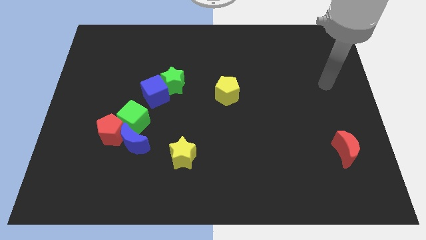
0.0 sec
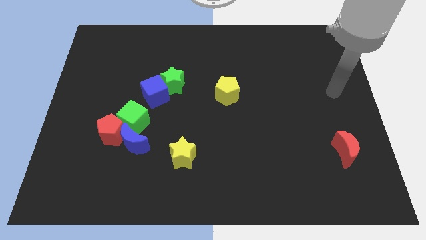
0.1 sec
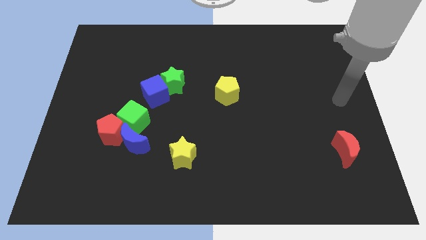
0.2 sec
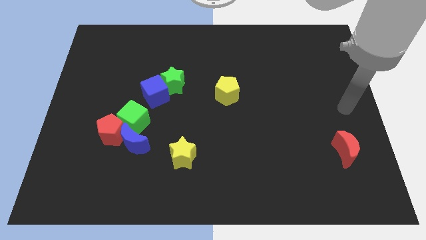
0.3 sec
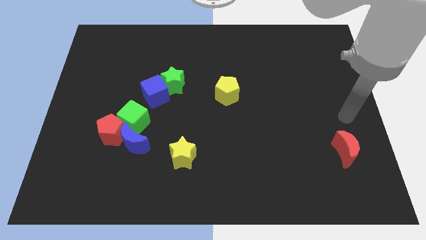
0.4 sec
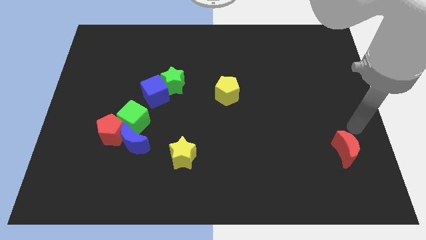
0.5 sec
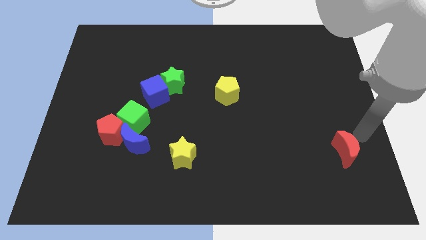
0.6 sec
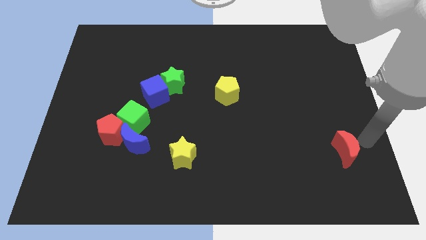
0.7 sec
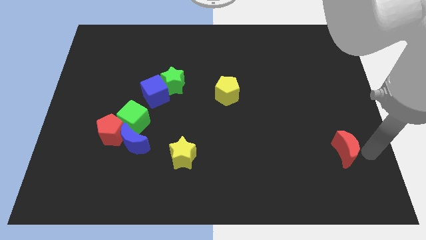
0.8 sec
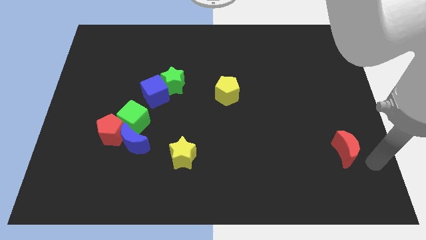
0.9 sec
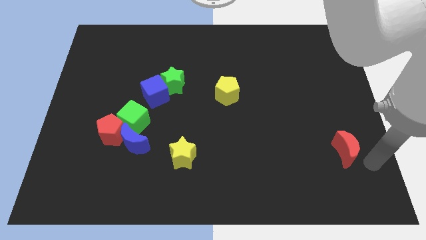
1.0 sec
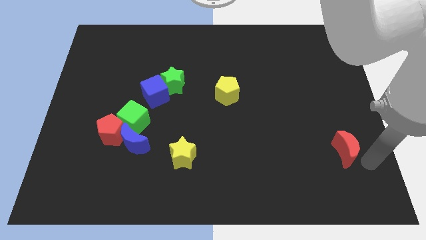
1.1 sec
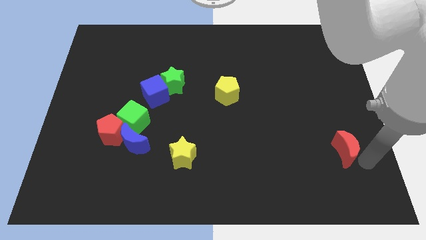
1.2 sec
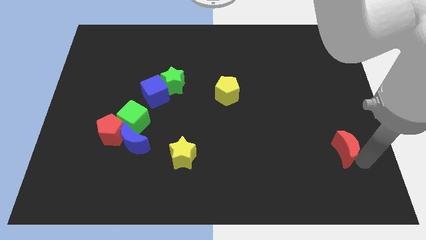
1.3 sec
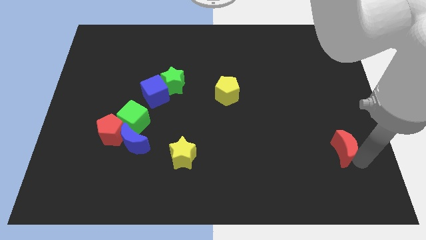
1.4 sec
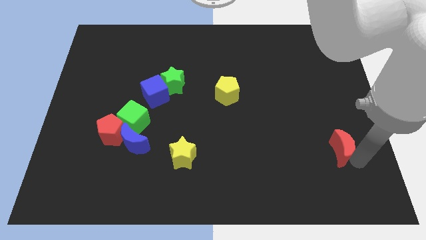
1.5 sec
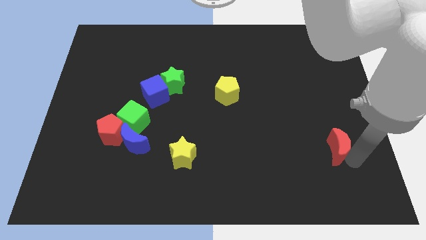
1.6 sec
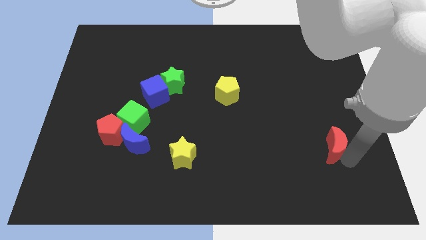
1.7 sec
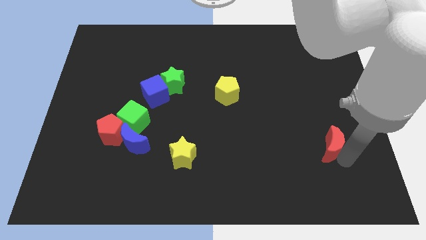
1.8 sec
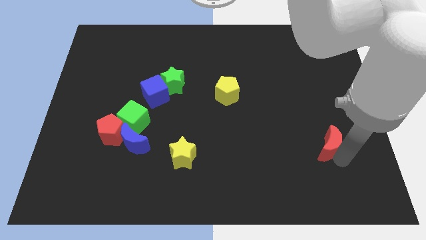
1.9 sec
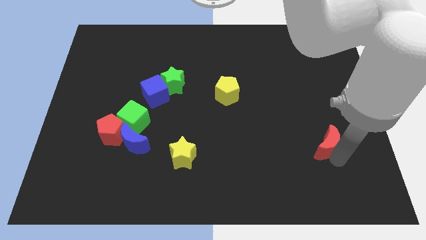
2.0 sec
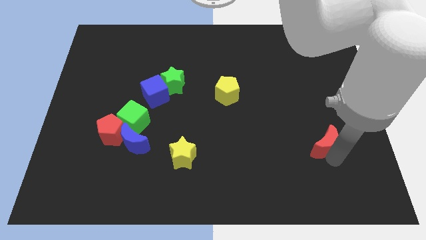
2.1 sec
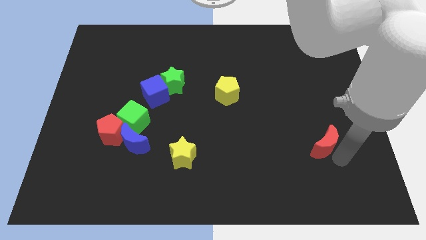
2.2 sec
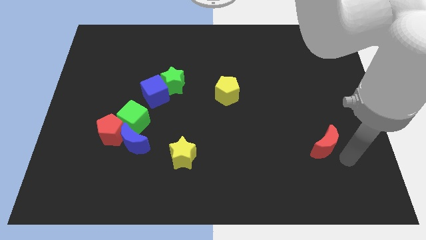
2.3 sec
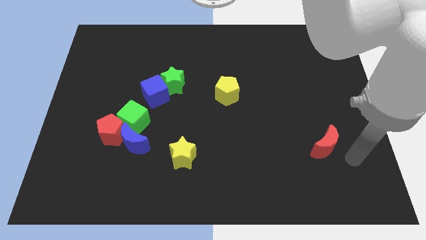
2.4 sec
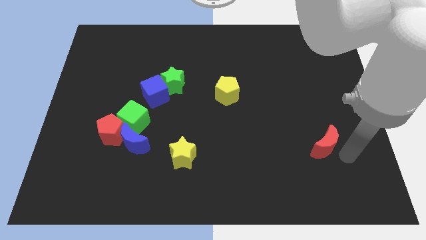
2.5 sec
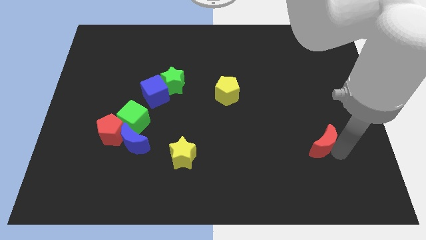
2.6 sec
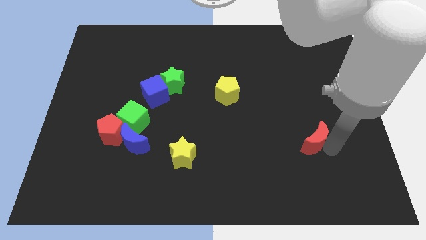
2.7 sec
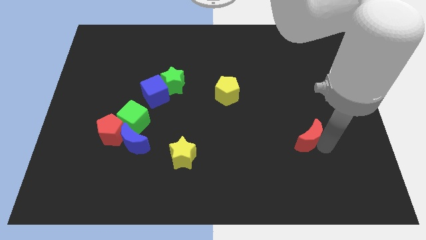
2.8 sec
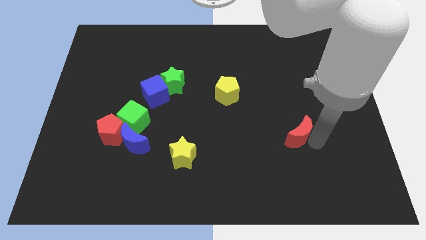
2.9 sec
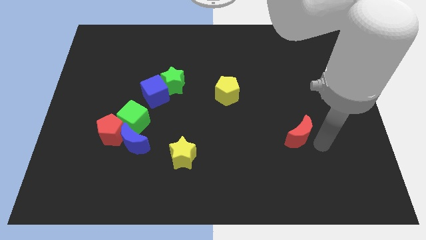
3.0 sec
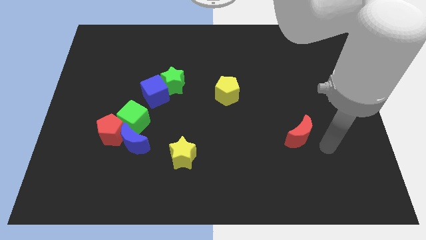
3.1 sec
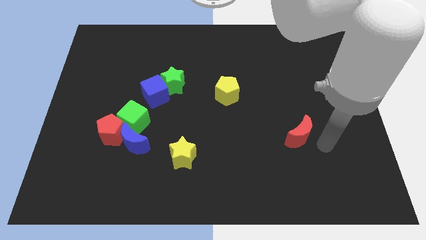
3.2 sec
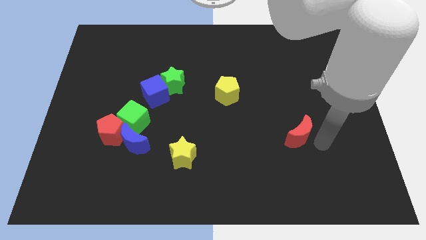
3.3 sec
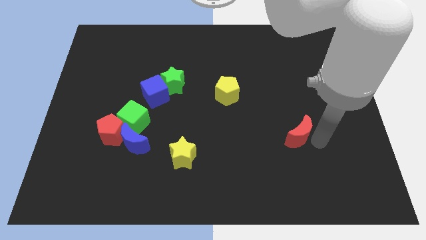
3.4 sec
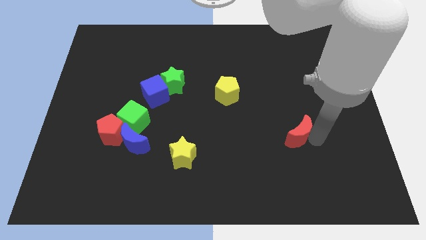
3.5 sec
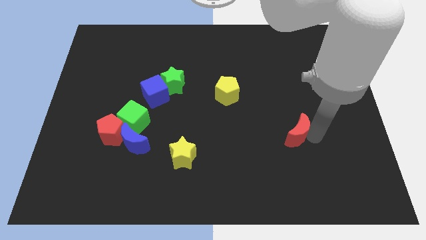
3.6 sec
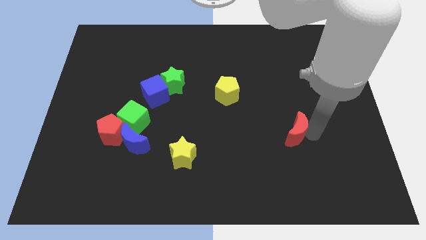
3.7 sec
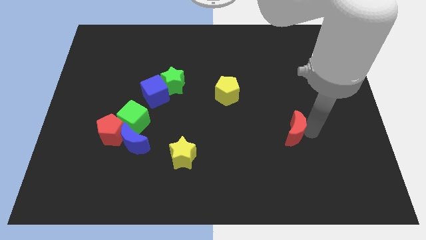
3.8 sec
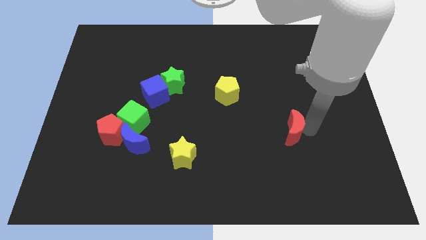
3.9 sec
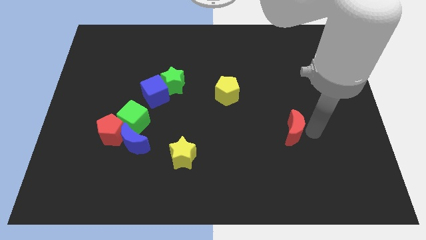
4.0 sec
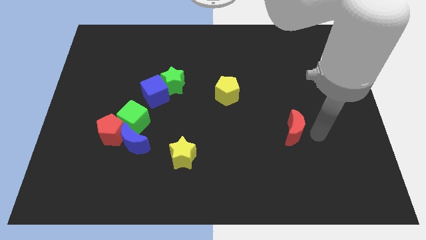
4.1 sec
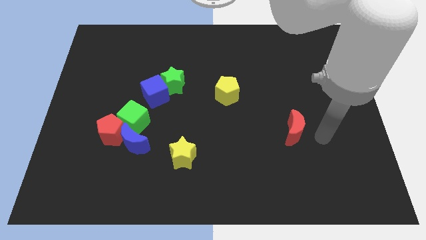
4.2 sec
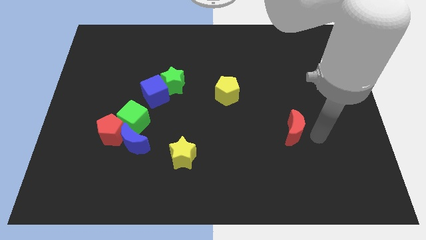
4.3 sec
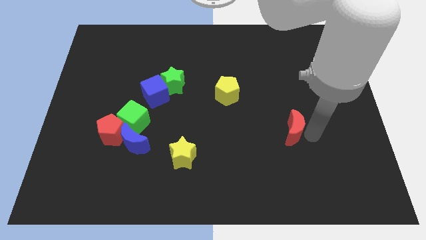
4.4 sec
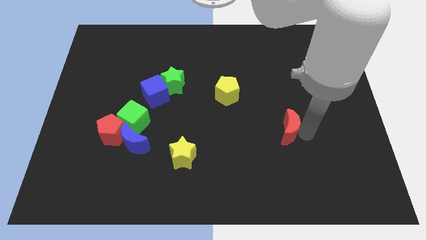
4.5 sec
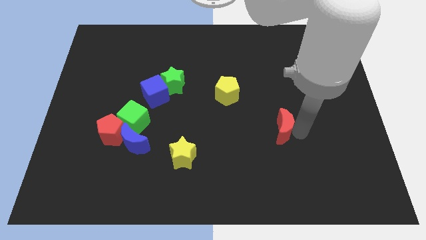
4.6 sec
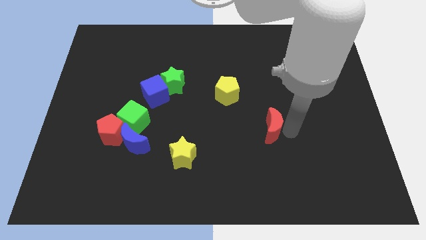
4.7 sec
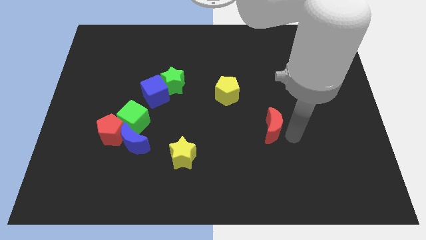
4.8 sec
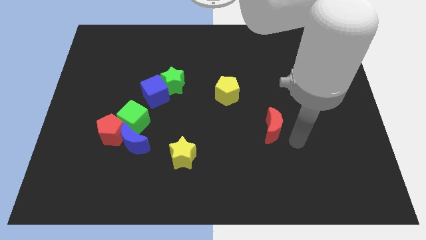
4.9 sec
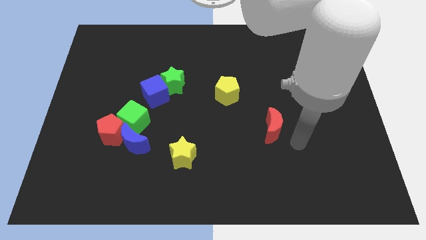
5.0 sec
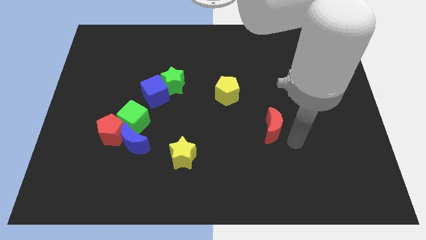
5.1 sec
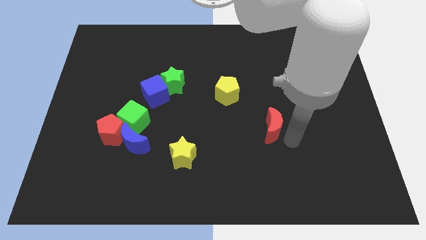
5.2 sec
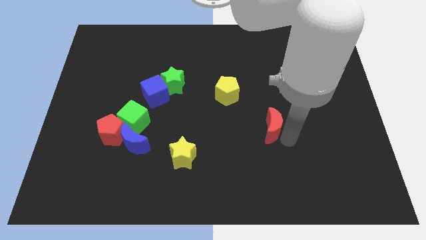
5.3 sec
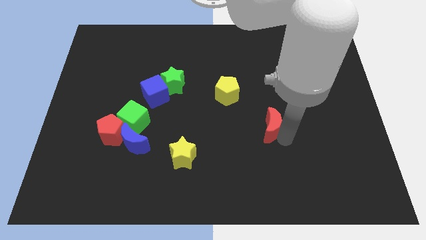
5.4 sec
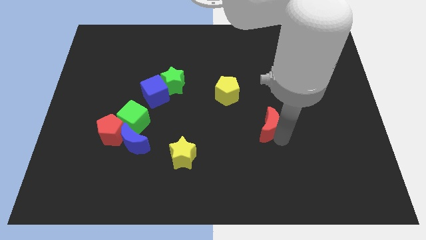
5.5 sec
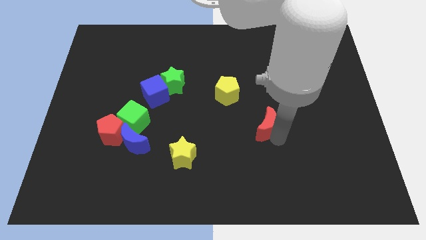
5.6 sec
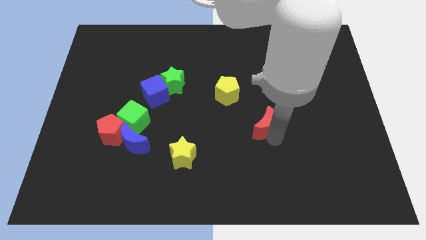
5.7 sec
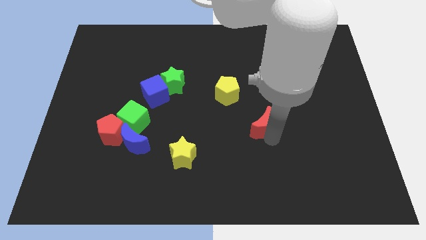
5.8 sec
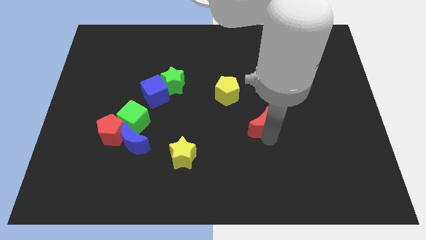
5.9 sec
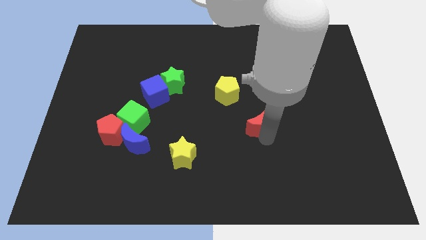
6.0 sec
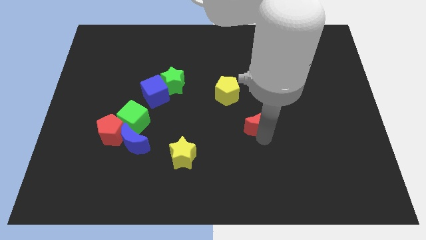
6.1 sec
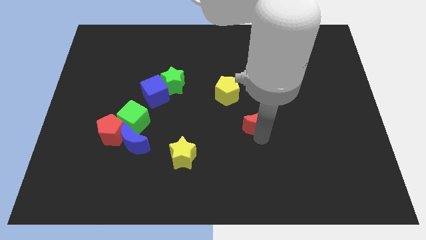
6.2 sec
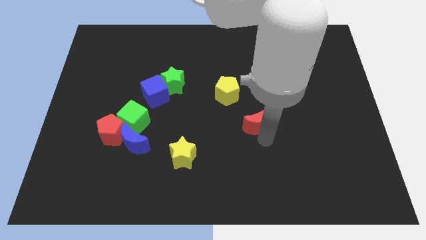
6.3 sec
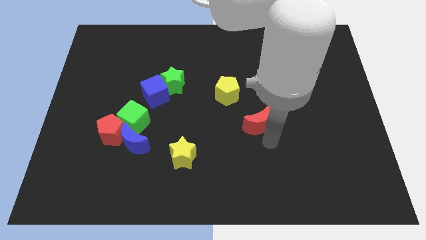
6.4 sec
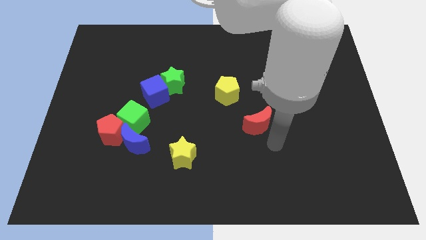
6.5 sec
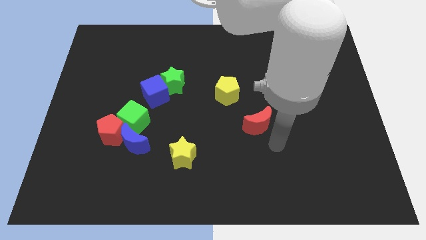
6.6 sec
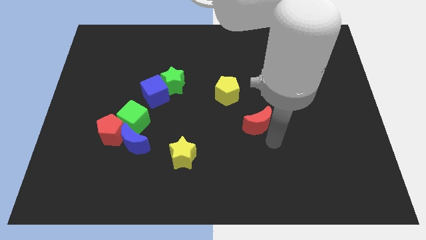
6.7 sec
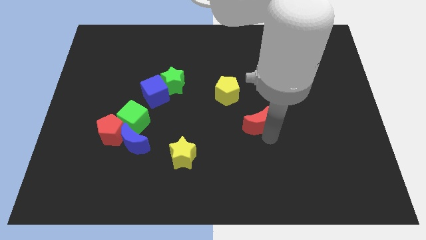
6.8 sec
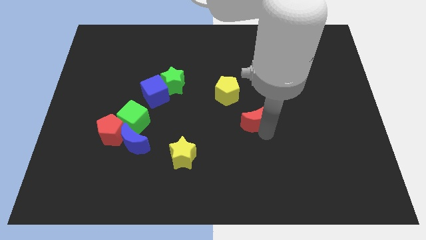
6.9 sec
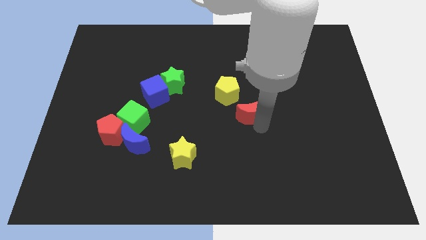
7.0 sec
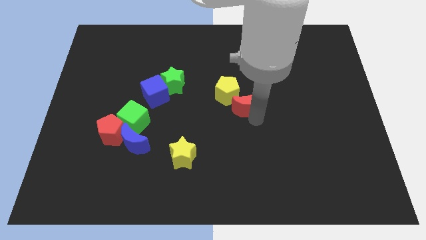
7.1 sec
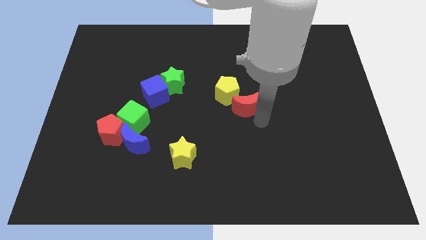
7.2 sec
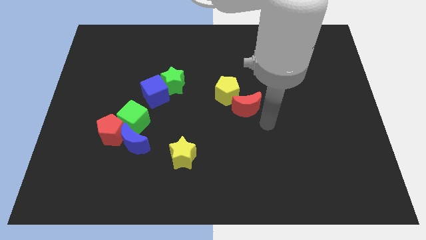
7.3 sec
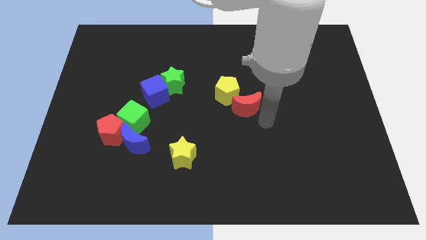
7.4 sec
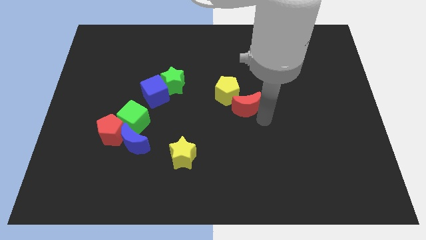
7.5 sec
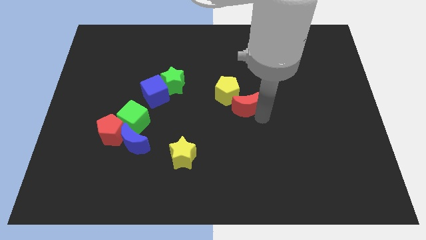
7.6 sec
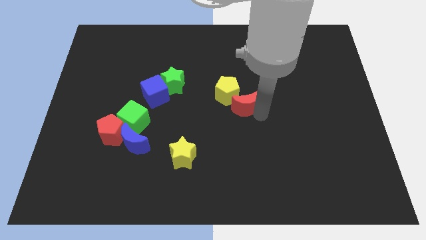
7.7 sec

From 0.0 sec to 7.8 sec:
slide the red moon close to the yellow pentagon
